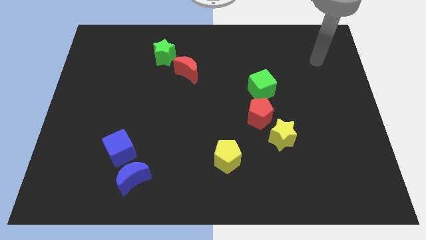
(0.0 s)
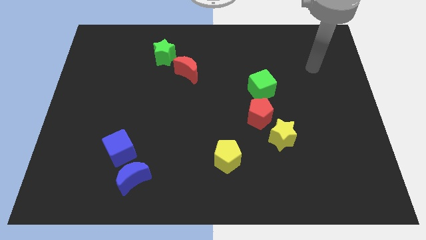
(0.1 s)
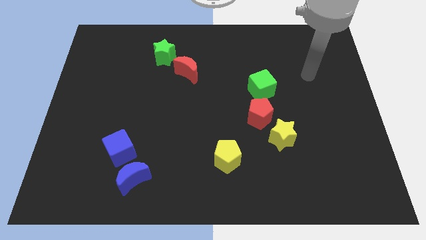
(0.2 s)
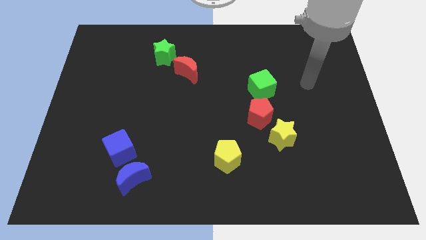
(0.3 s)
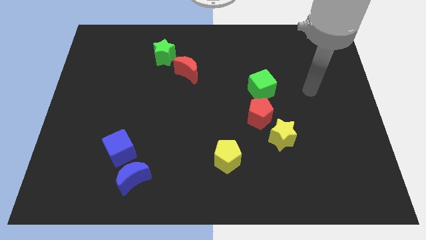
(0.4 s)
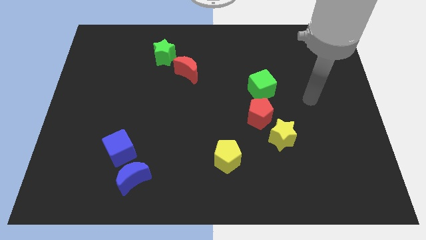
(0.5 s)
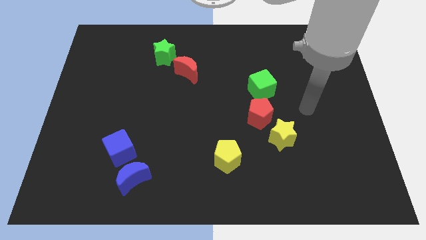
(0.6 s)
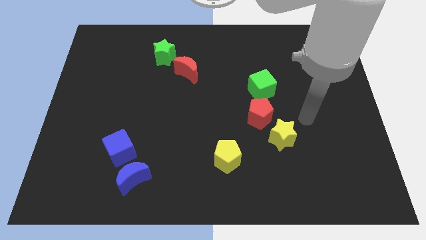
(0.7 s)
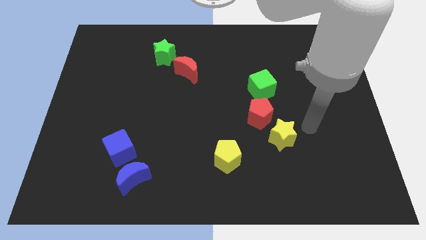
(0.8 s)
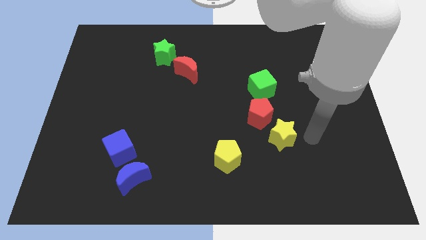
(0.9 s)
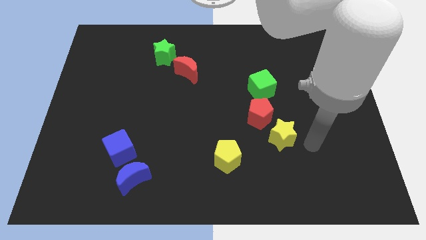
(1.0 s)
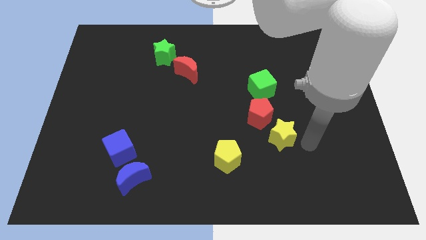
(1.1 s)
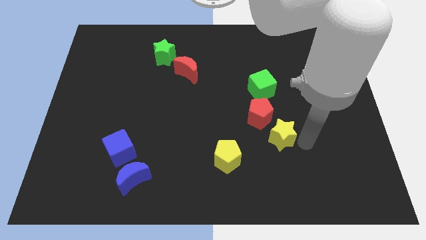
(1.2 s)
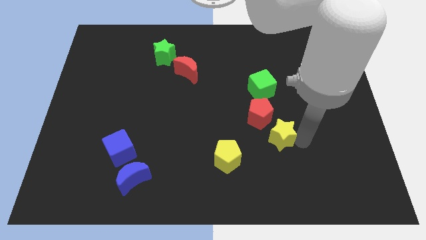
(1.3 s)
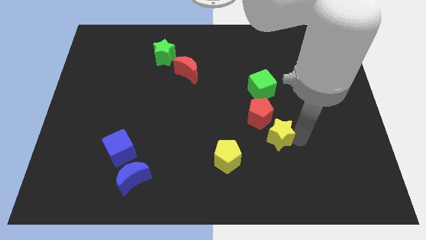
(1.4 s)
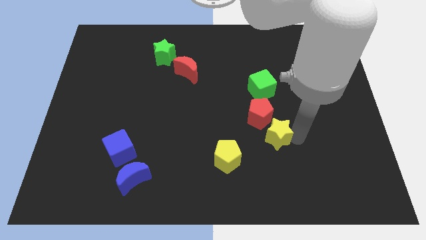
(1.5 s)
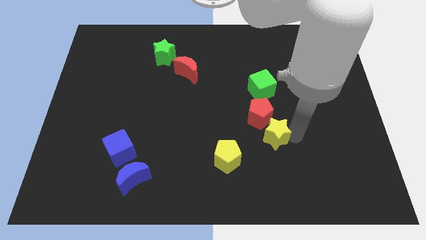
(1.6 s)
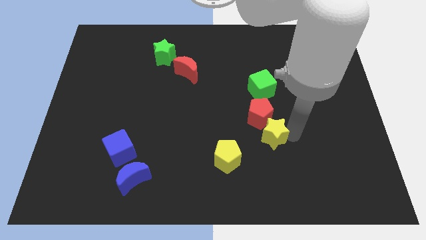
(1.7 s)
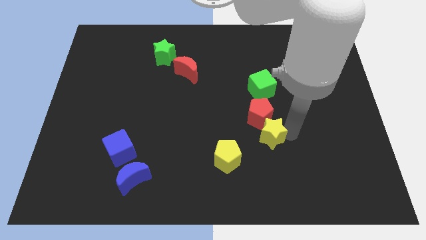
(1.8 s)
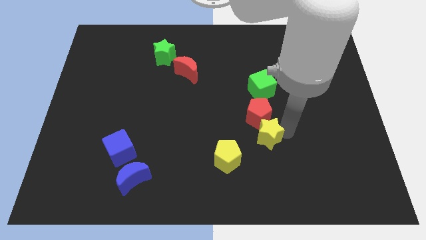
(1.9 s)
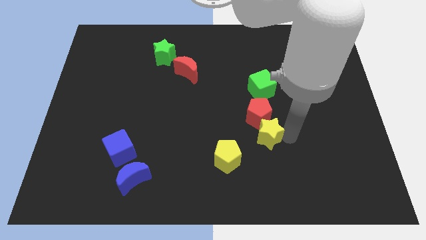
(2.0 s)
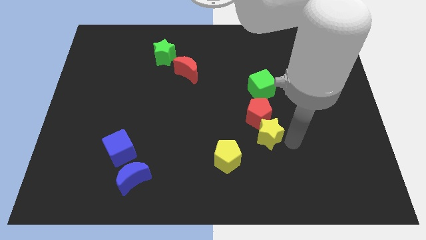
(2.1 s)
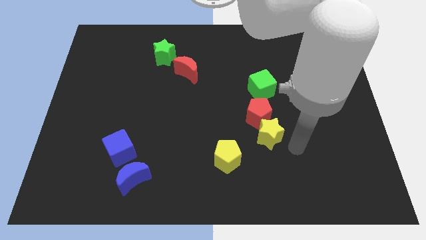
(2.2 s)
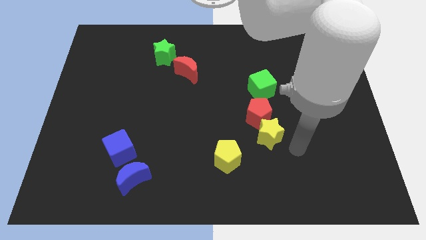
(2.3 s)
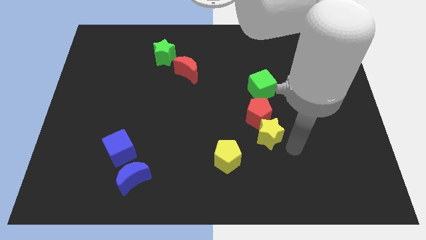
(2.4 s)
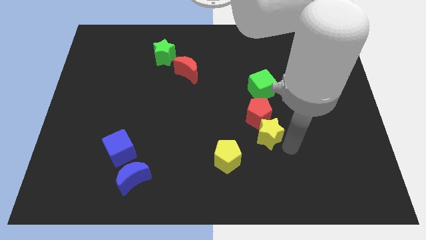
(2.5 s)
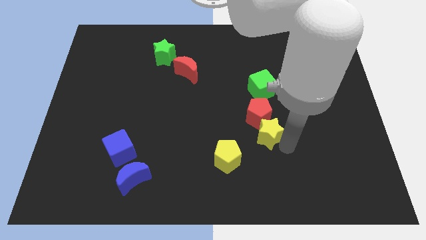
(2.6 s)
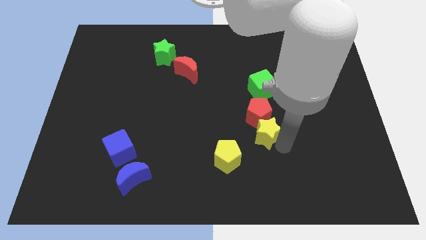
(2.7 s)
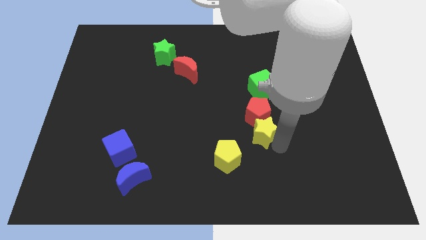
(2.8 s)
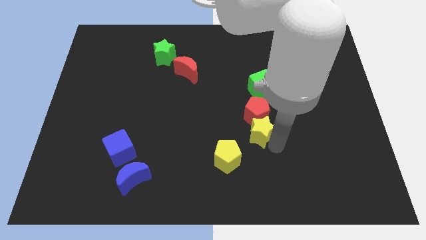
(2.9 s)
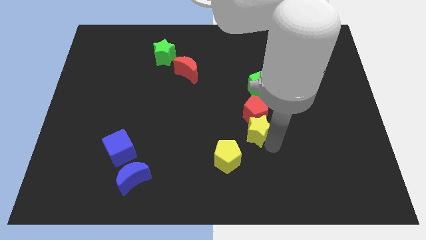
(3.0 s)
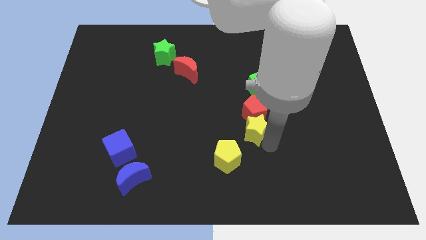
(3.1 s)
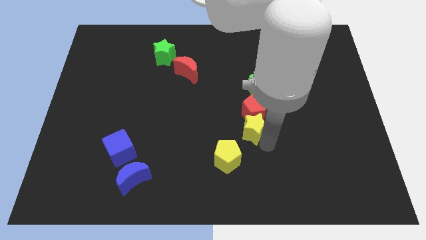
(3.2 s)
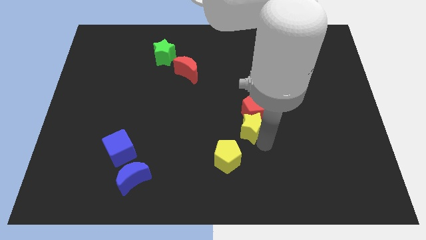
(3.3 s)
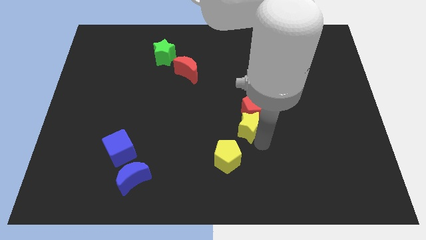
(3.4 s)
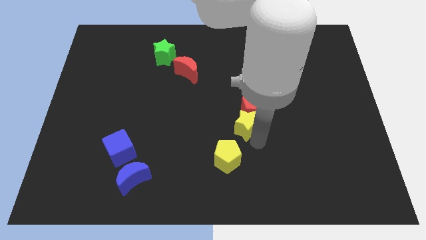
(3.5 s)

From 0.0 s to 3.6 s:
move the yellow star diagonally upwards and to the left somewhat

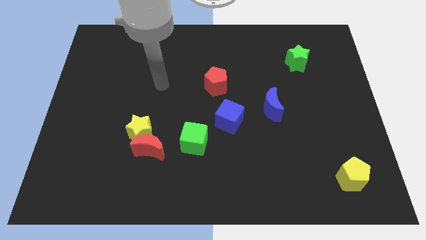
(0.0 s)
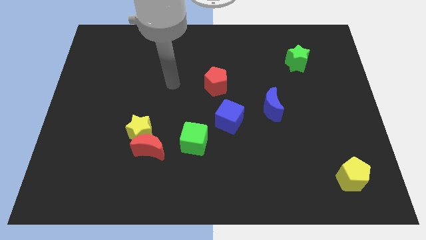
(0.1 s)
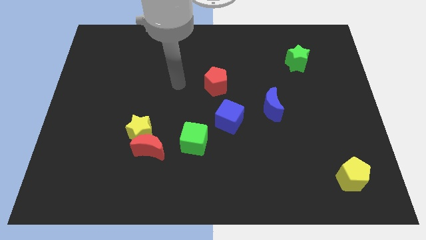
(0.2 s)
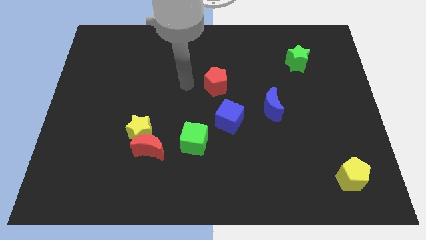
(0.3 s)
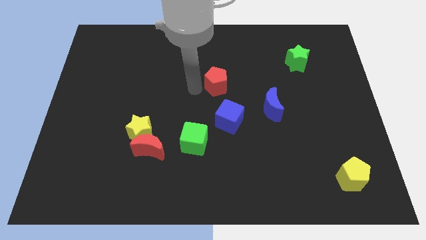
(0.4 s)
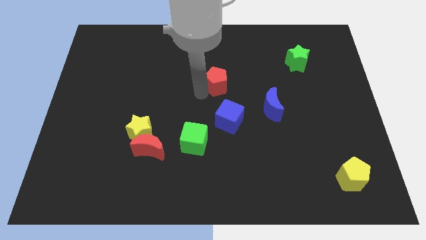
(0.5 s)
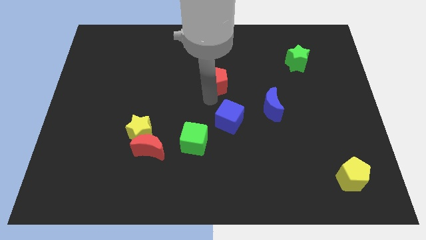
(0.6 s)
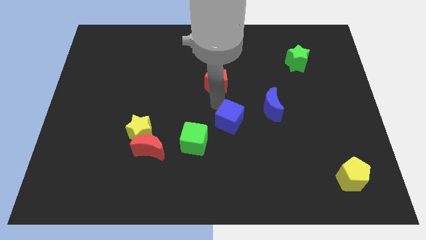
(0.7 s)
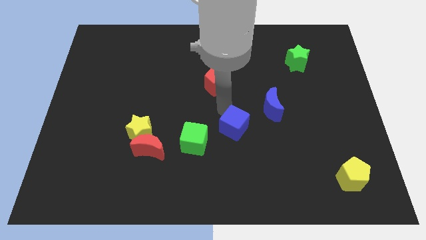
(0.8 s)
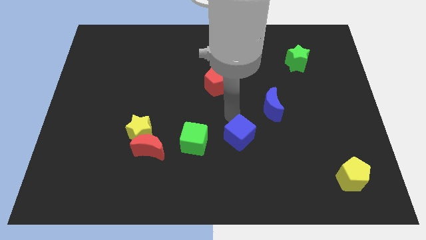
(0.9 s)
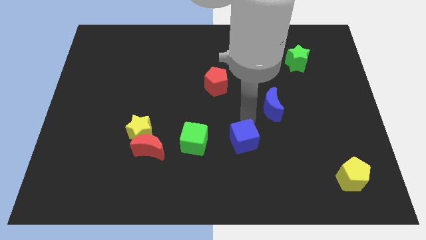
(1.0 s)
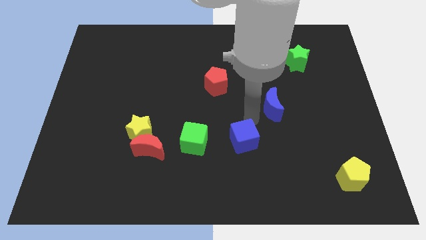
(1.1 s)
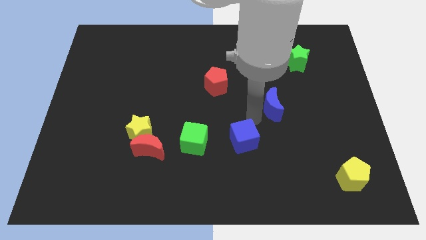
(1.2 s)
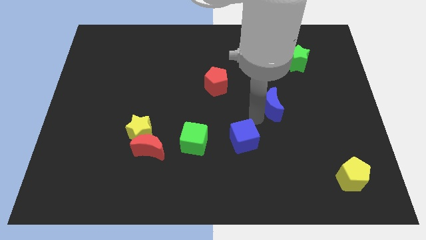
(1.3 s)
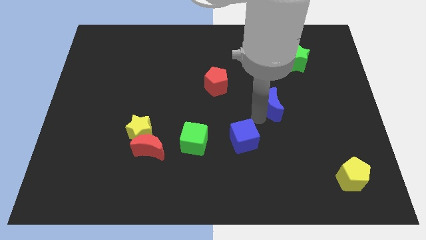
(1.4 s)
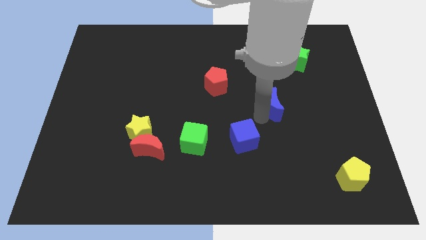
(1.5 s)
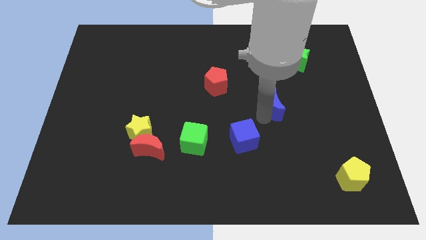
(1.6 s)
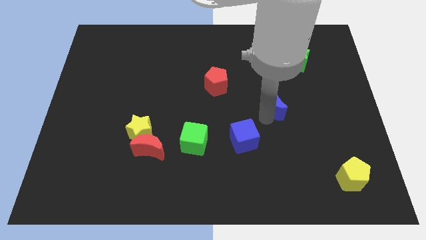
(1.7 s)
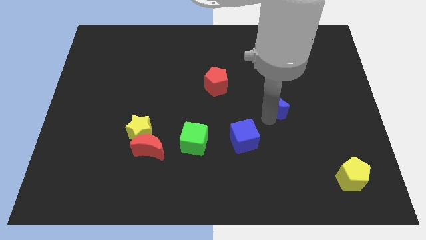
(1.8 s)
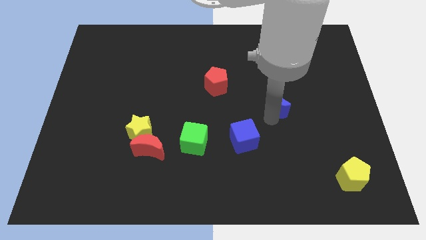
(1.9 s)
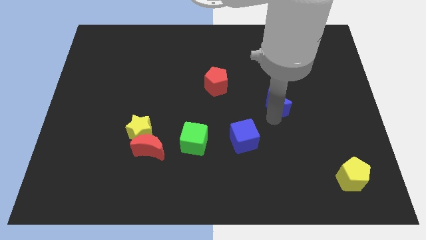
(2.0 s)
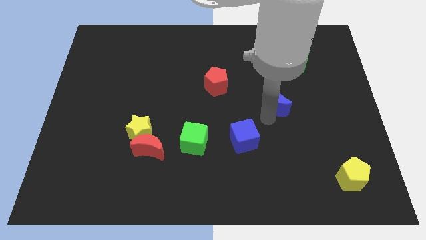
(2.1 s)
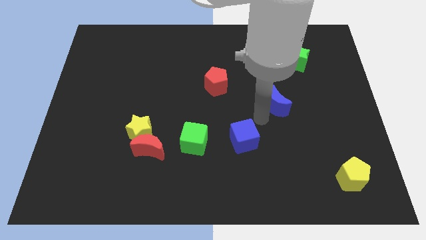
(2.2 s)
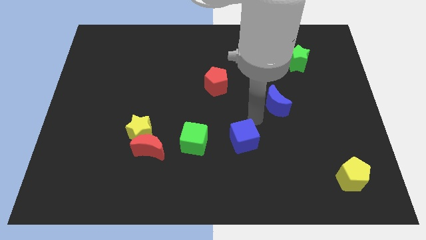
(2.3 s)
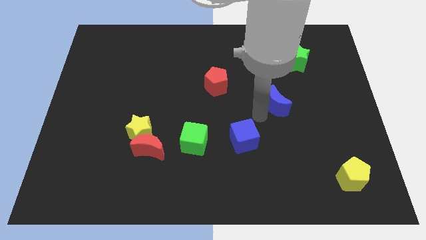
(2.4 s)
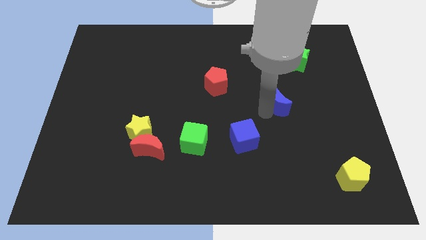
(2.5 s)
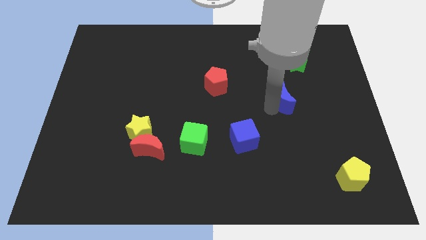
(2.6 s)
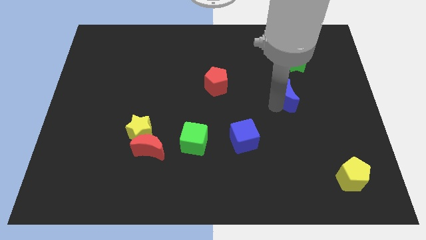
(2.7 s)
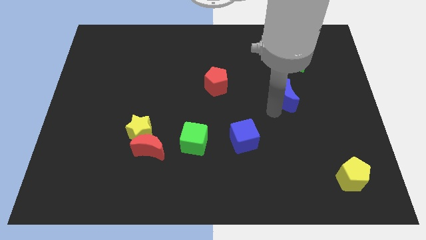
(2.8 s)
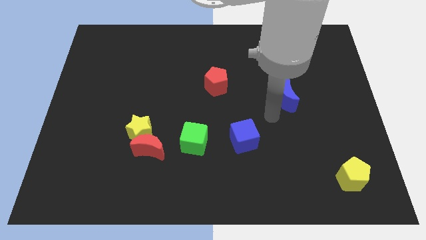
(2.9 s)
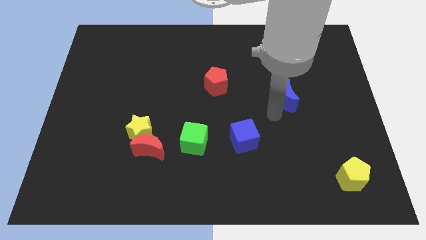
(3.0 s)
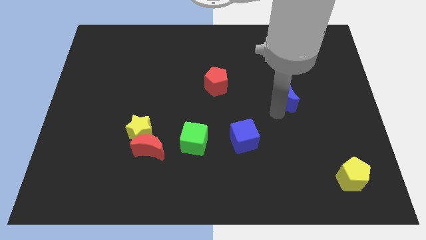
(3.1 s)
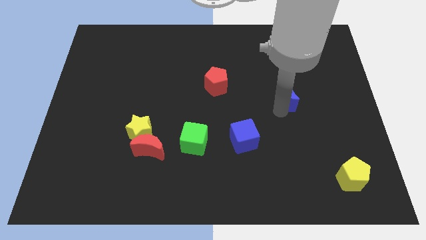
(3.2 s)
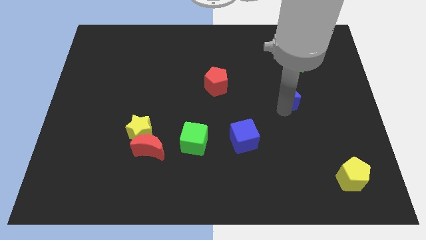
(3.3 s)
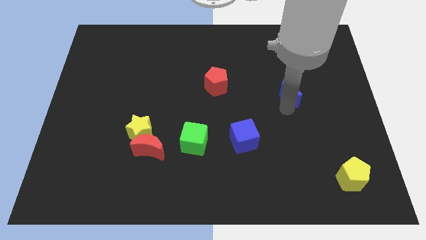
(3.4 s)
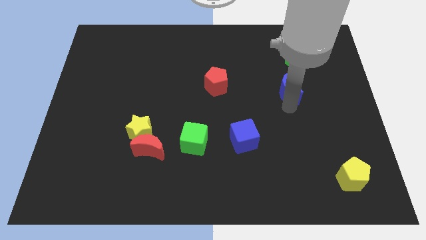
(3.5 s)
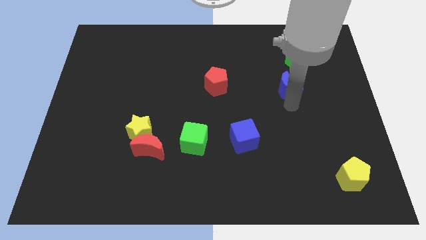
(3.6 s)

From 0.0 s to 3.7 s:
move the blue moon a little bit up and right

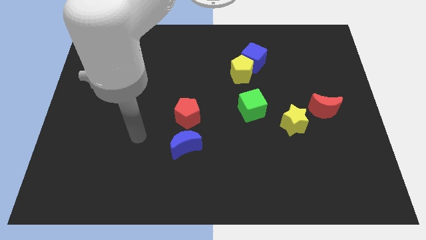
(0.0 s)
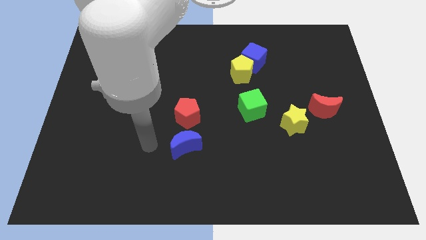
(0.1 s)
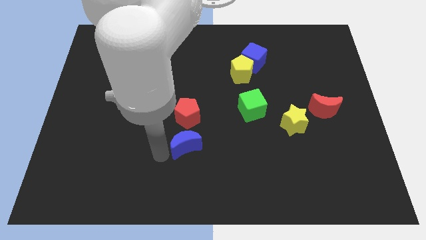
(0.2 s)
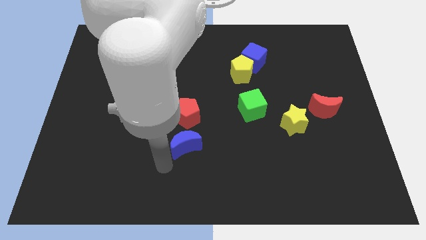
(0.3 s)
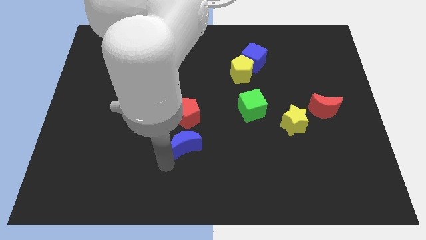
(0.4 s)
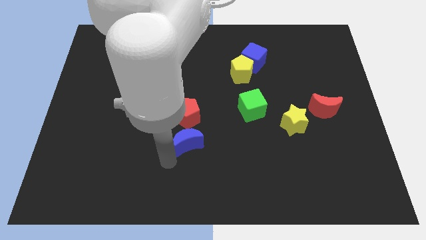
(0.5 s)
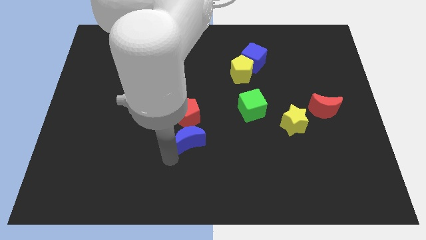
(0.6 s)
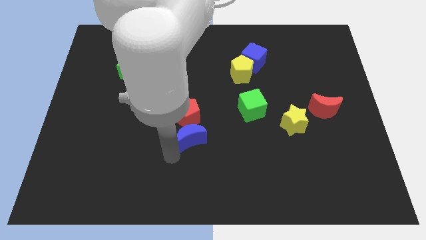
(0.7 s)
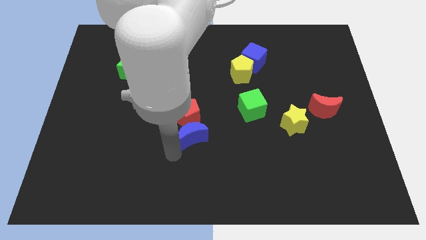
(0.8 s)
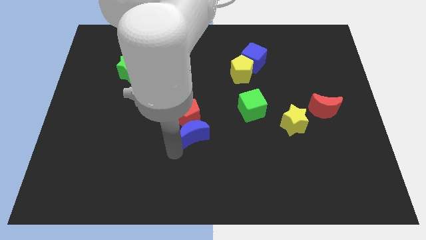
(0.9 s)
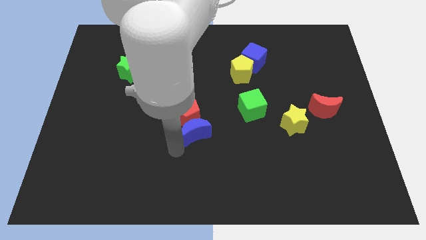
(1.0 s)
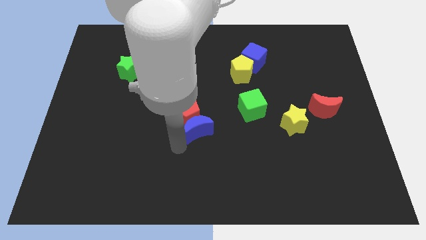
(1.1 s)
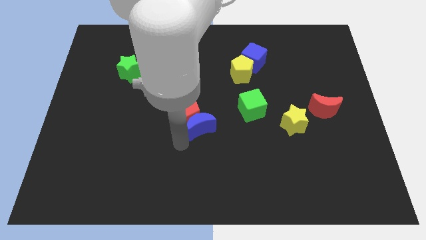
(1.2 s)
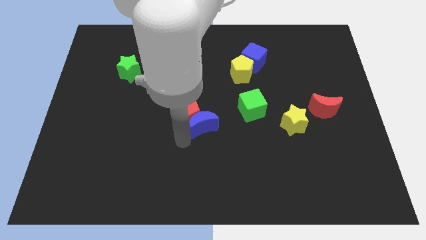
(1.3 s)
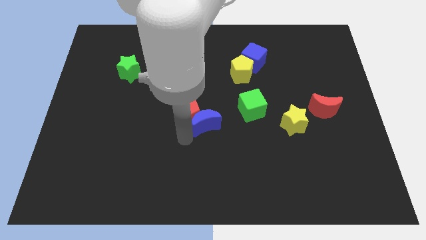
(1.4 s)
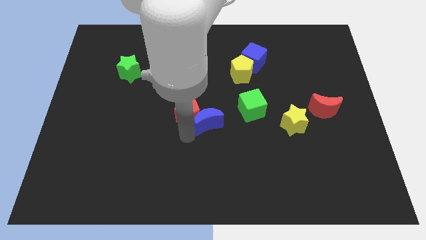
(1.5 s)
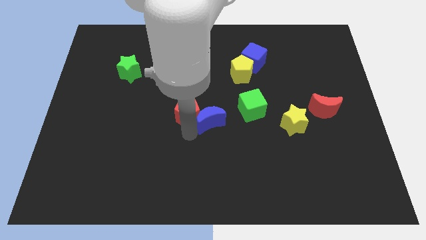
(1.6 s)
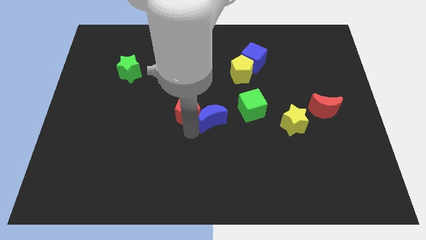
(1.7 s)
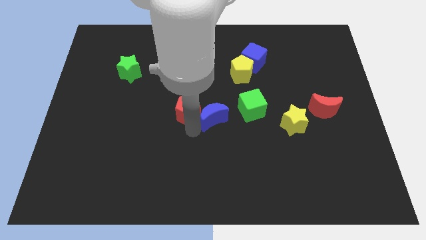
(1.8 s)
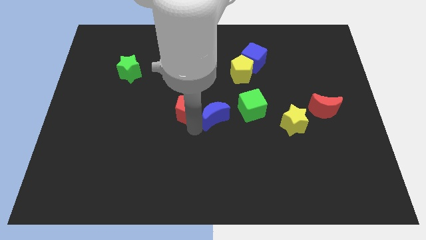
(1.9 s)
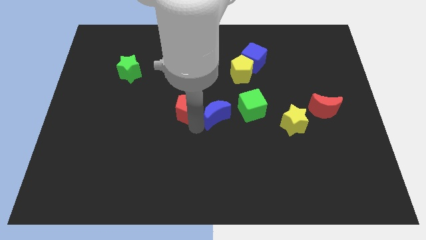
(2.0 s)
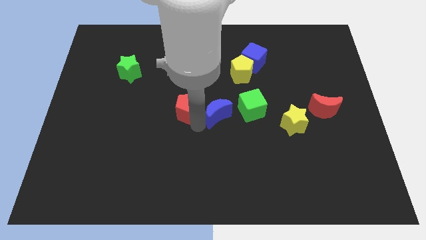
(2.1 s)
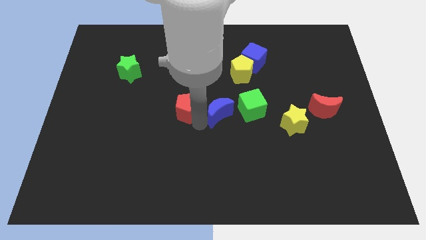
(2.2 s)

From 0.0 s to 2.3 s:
push the blue moon slightly upwards
